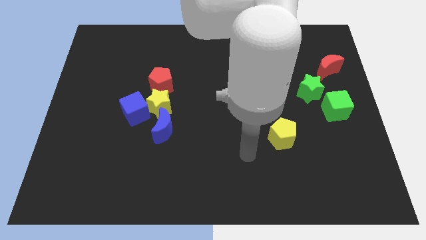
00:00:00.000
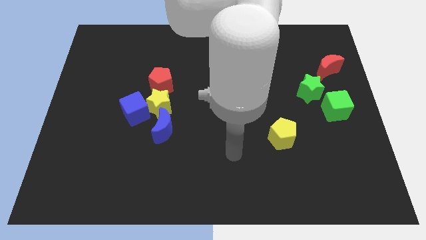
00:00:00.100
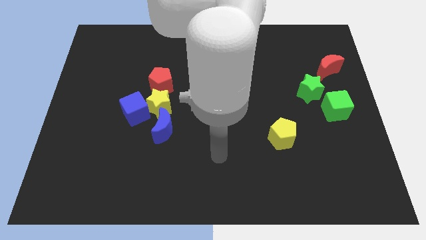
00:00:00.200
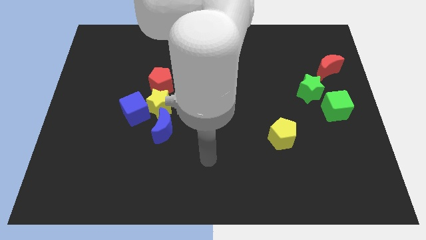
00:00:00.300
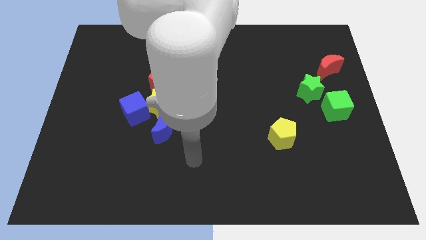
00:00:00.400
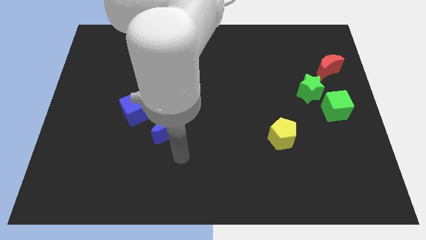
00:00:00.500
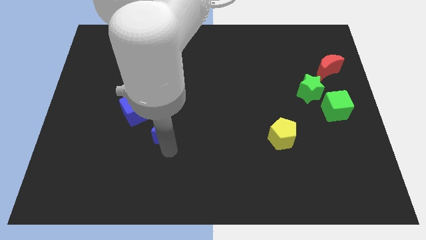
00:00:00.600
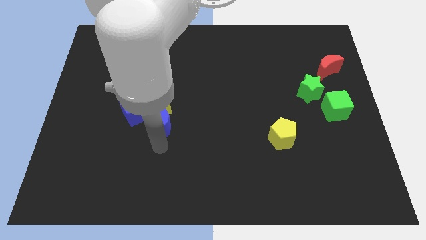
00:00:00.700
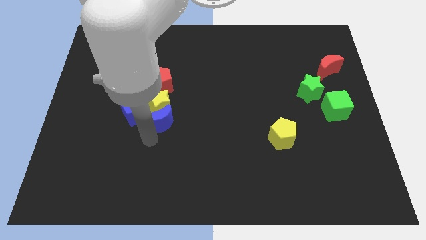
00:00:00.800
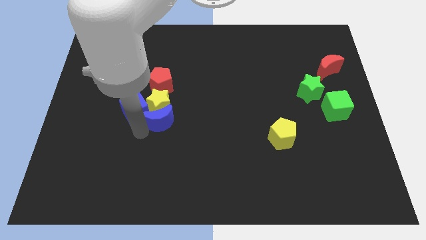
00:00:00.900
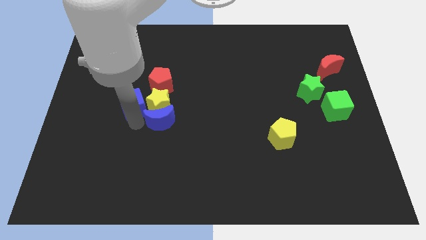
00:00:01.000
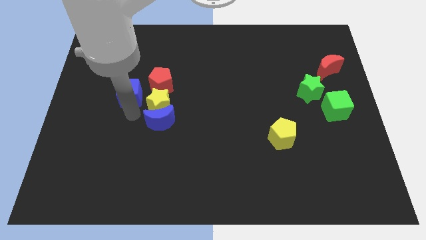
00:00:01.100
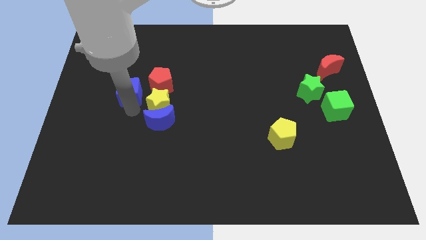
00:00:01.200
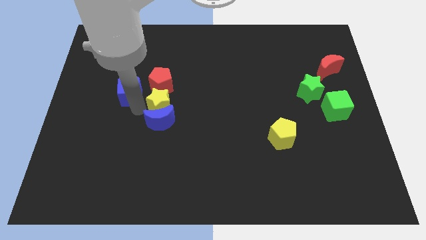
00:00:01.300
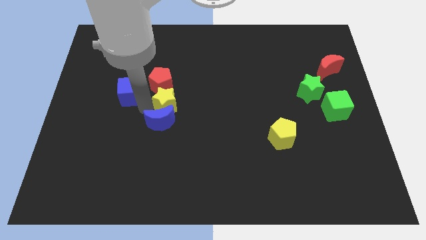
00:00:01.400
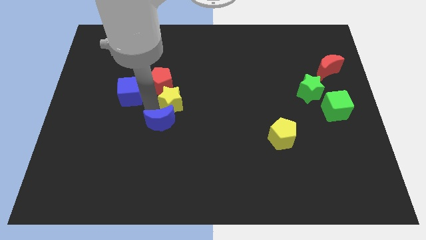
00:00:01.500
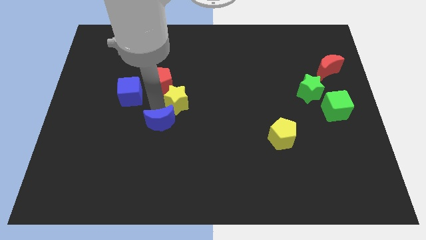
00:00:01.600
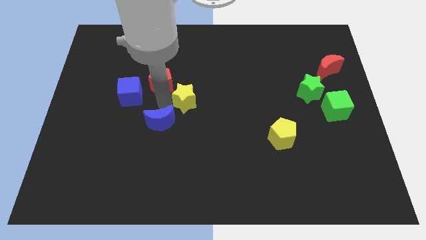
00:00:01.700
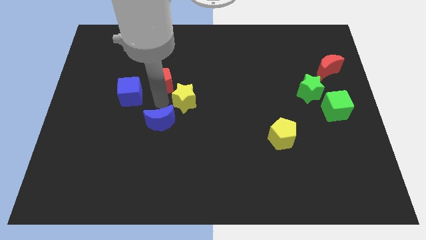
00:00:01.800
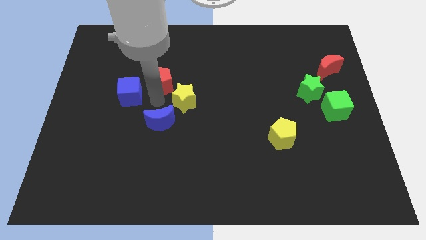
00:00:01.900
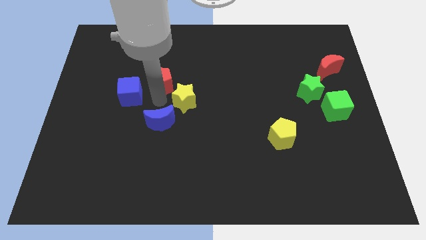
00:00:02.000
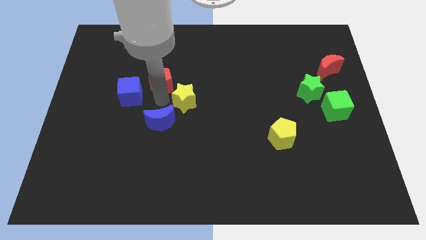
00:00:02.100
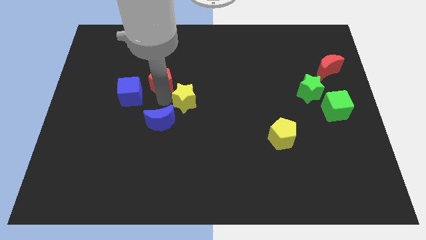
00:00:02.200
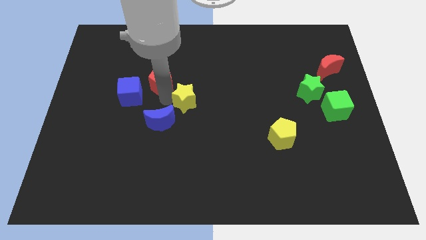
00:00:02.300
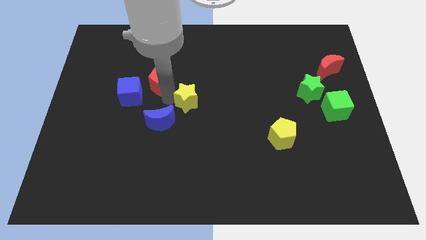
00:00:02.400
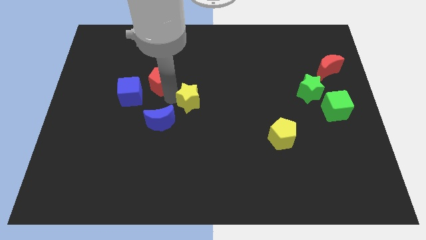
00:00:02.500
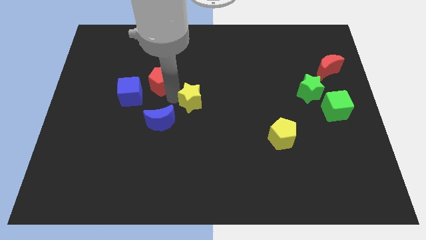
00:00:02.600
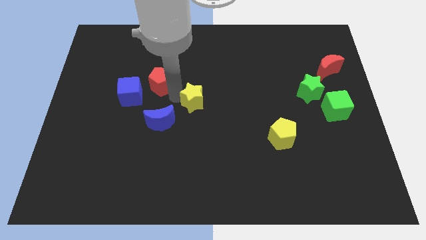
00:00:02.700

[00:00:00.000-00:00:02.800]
move the yellow star away from the blue cube, blue moon, and red pentagon

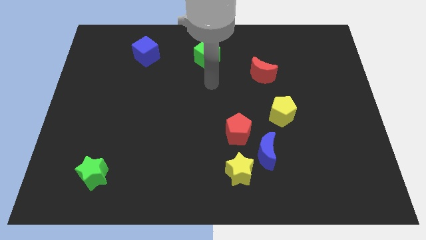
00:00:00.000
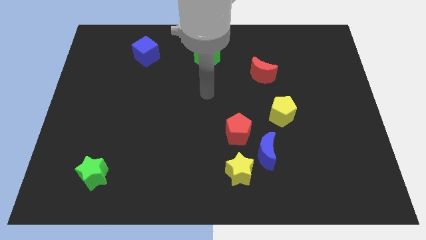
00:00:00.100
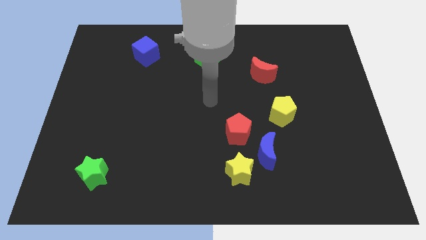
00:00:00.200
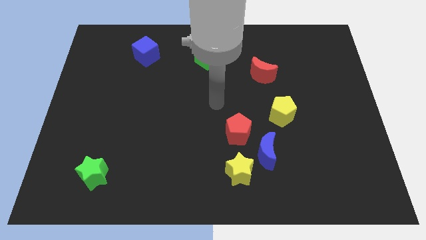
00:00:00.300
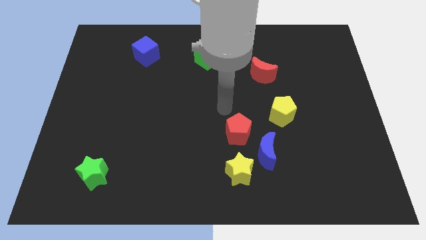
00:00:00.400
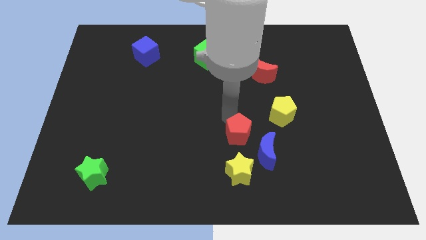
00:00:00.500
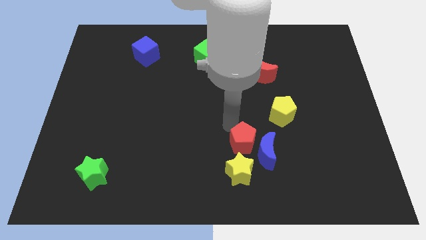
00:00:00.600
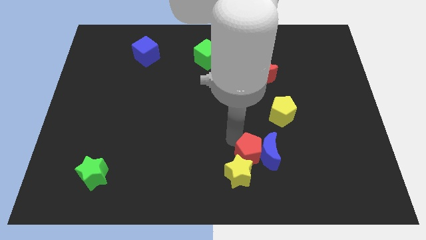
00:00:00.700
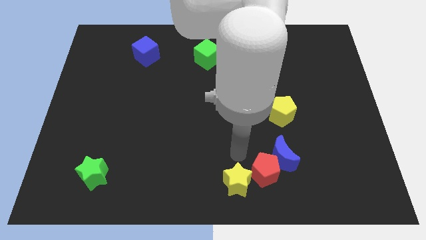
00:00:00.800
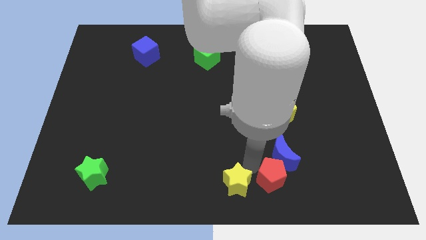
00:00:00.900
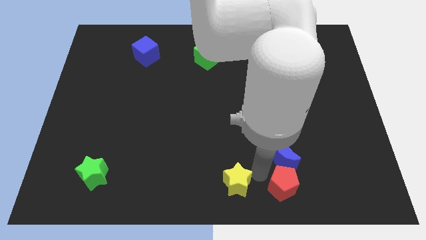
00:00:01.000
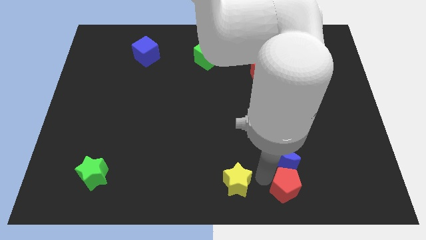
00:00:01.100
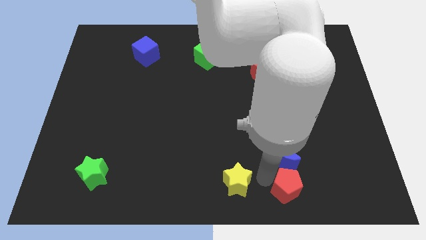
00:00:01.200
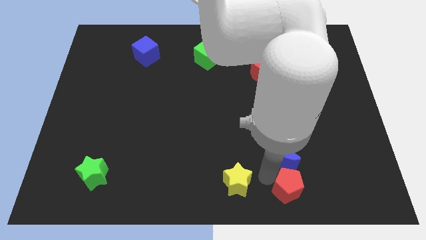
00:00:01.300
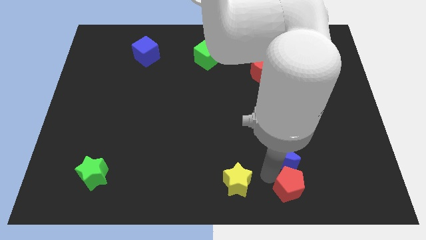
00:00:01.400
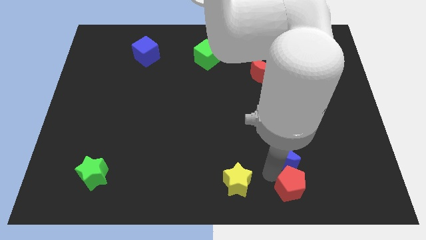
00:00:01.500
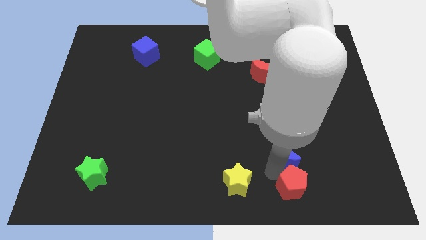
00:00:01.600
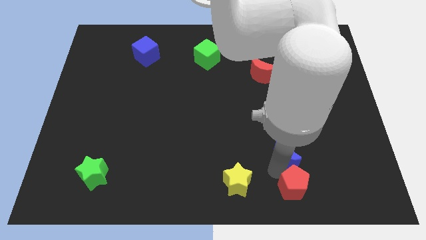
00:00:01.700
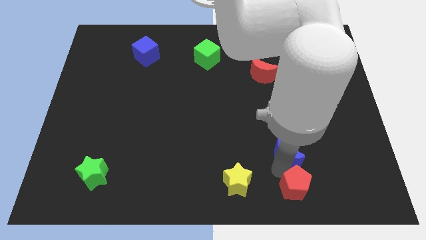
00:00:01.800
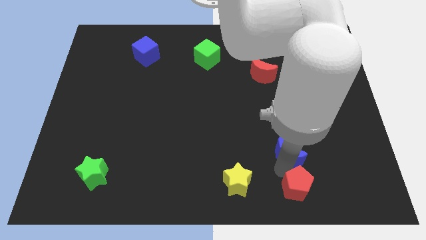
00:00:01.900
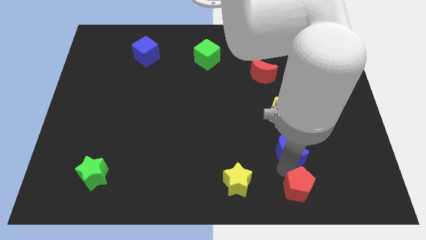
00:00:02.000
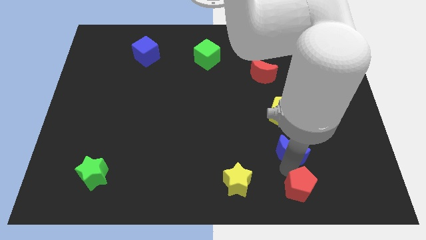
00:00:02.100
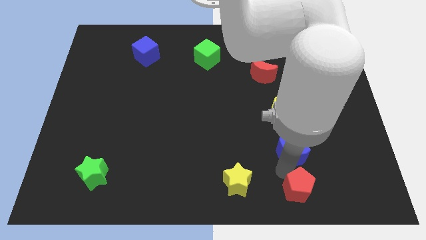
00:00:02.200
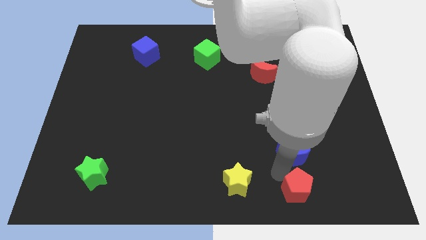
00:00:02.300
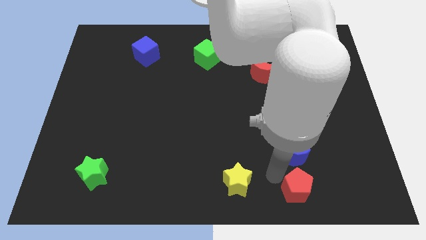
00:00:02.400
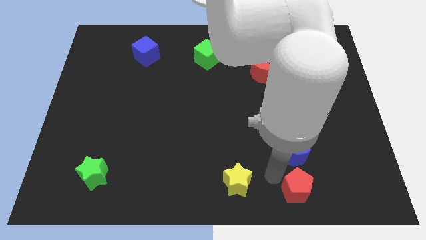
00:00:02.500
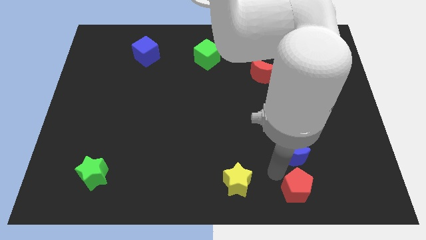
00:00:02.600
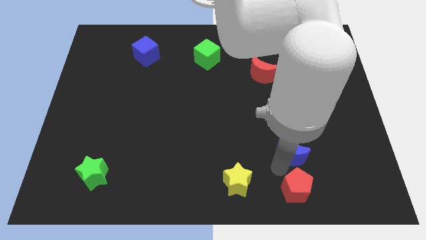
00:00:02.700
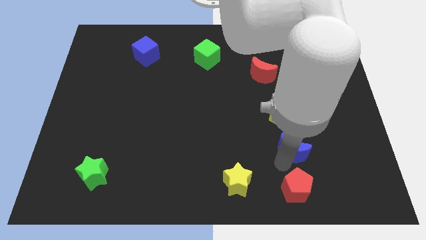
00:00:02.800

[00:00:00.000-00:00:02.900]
separate the blue moon from the yellow star and red pentagon

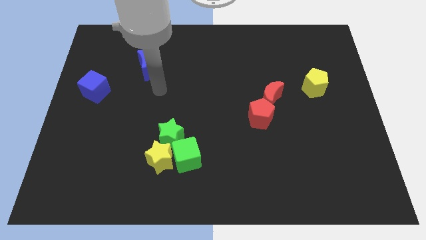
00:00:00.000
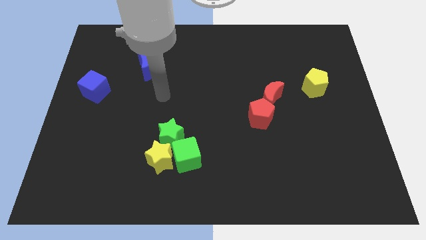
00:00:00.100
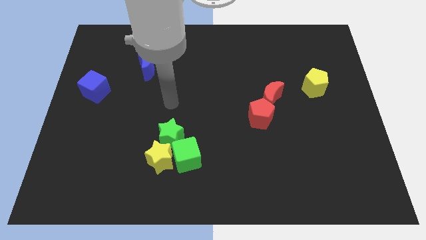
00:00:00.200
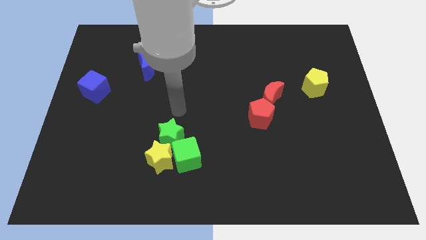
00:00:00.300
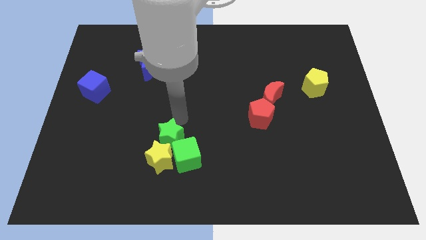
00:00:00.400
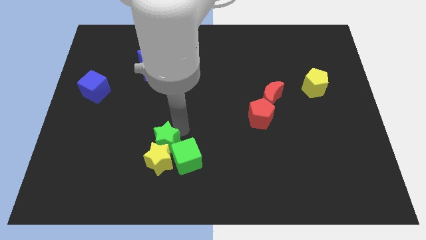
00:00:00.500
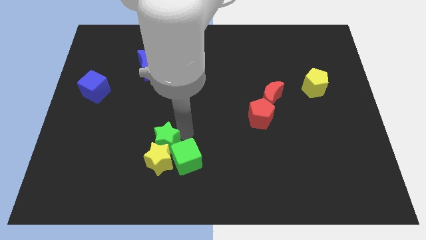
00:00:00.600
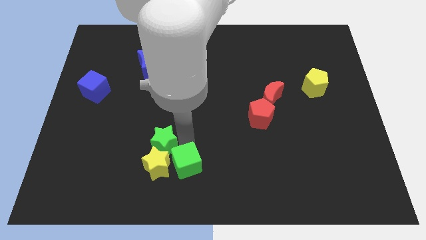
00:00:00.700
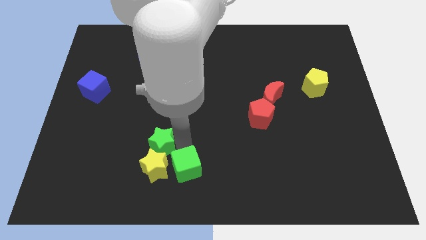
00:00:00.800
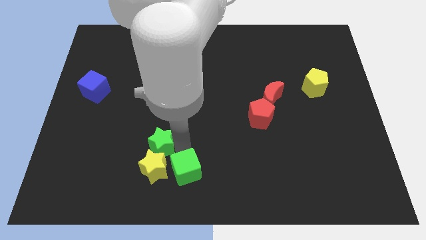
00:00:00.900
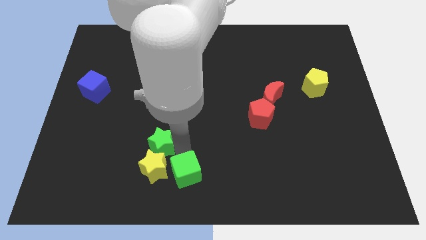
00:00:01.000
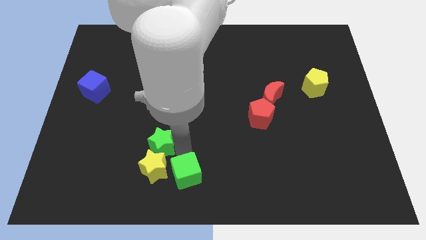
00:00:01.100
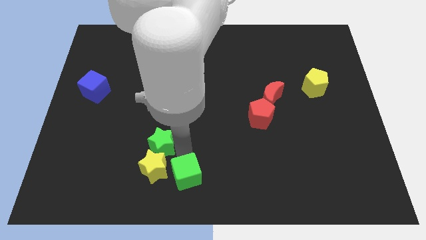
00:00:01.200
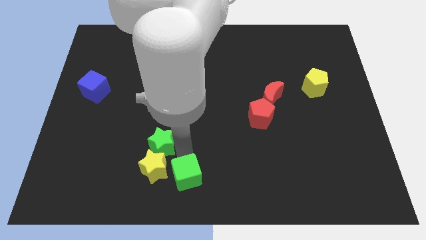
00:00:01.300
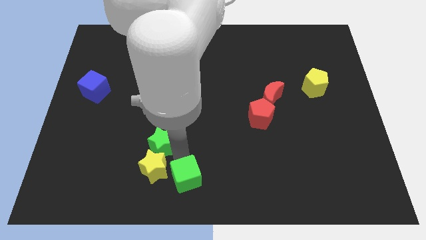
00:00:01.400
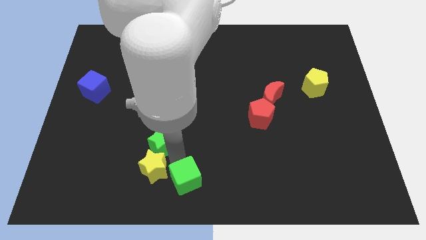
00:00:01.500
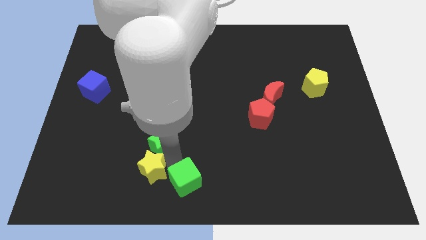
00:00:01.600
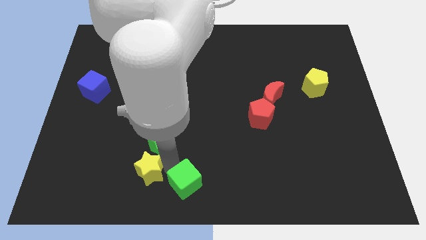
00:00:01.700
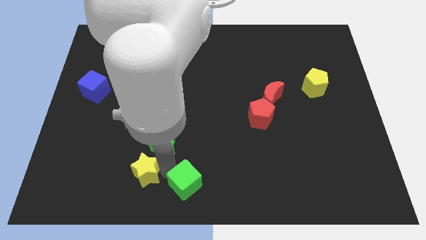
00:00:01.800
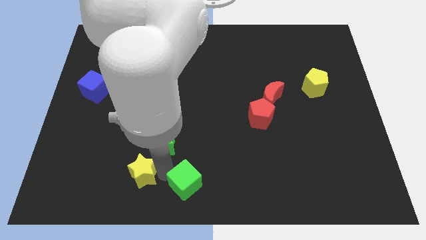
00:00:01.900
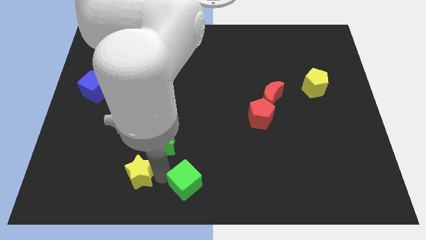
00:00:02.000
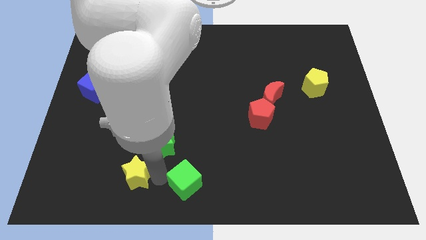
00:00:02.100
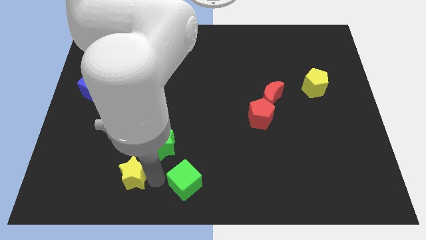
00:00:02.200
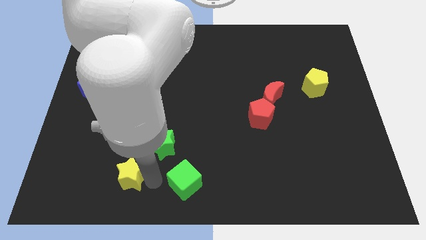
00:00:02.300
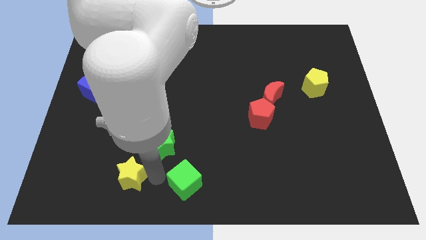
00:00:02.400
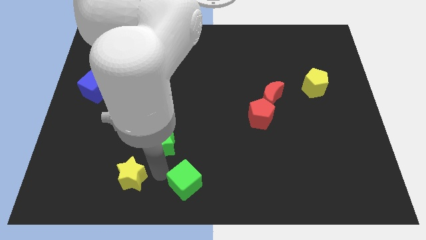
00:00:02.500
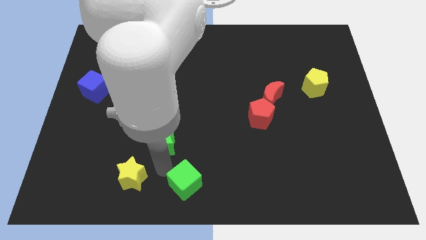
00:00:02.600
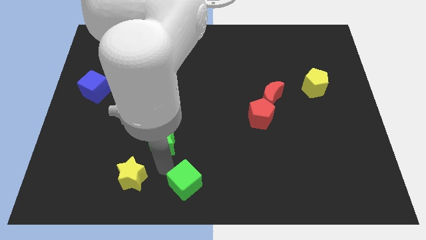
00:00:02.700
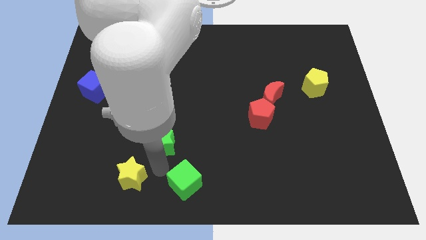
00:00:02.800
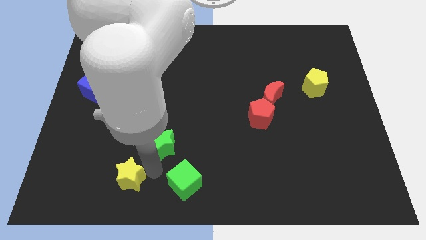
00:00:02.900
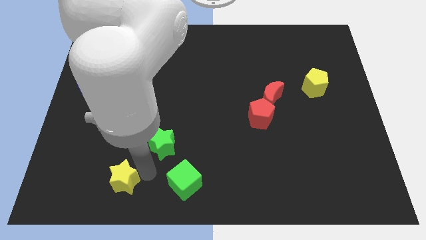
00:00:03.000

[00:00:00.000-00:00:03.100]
separate the yellow star from the green cube and green star

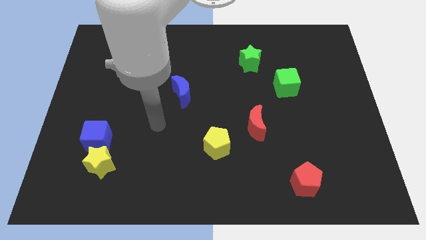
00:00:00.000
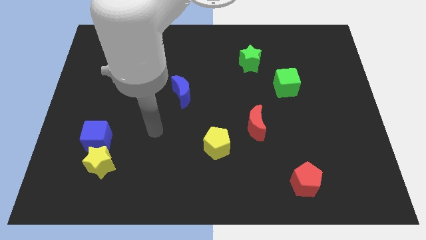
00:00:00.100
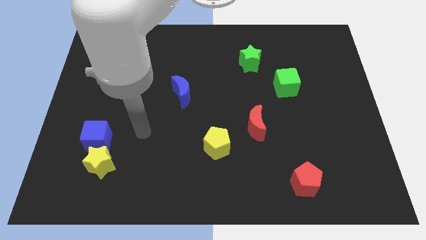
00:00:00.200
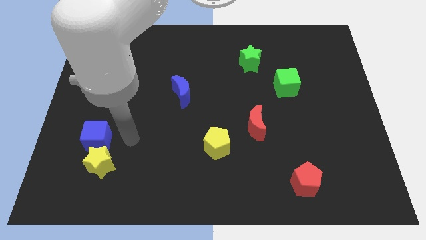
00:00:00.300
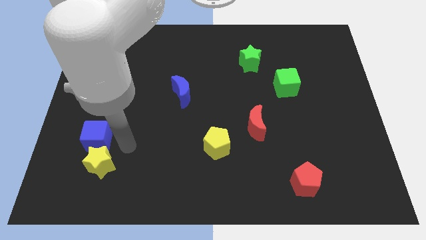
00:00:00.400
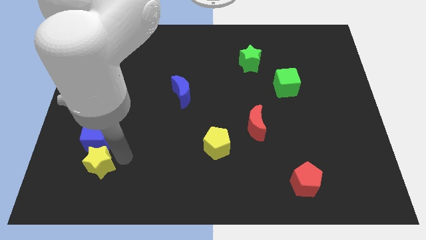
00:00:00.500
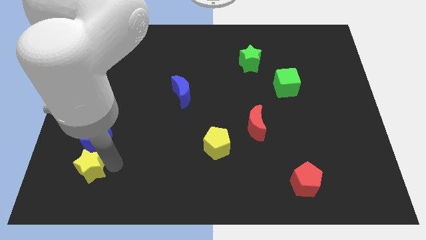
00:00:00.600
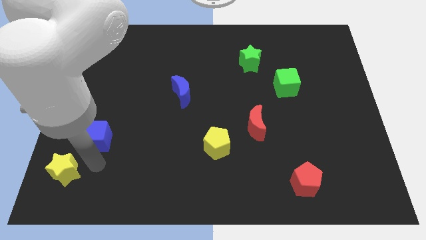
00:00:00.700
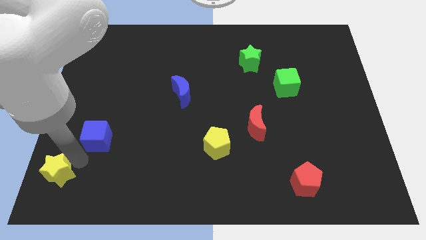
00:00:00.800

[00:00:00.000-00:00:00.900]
move the blue cube away from the yellow star
